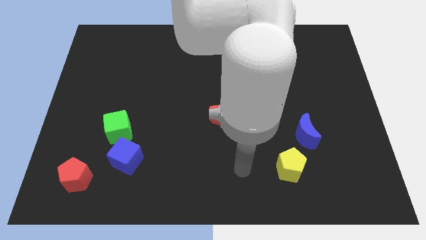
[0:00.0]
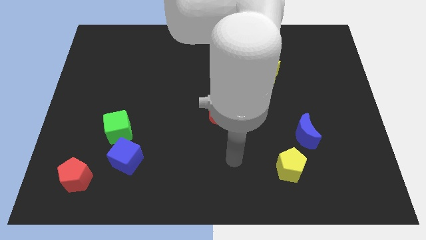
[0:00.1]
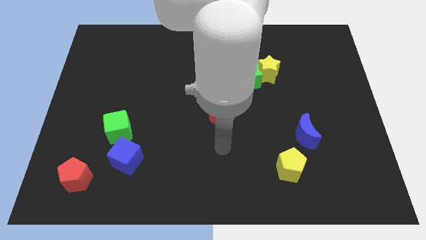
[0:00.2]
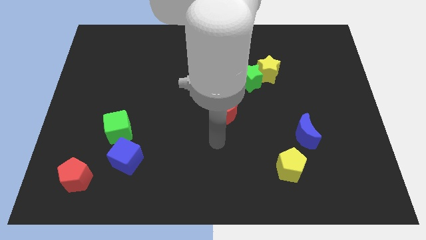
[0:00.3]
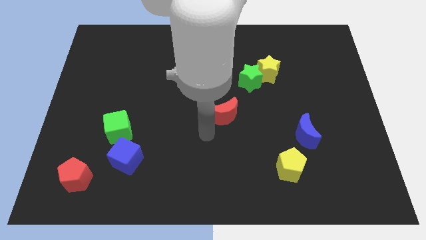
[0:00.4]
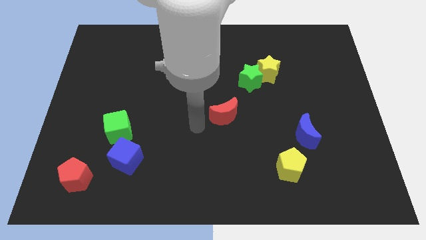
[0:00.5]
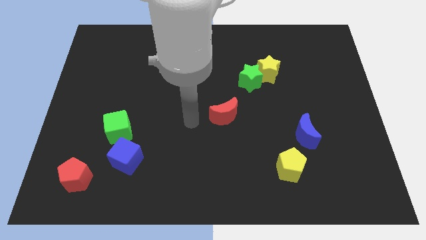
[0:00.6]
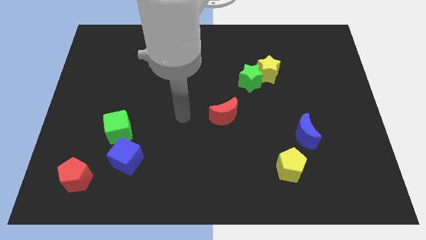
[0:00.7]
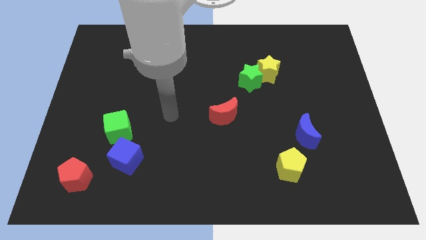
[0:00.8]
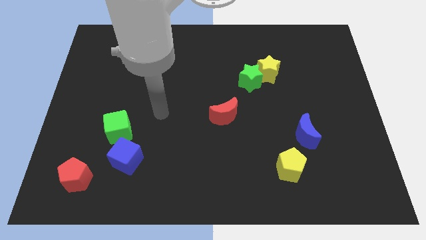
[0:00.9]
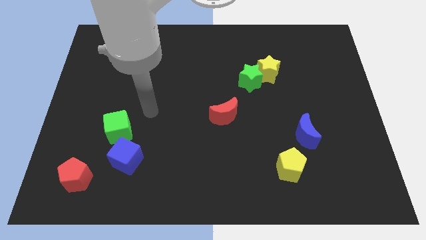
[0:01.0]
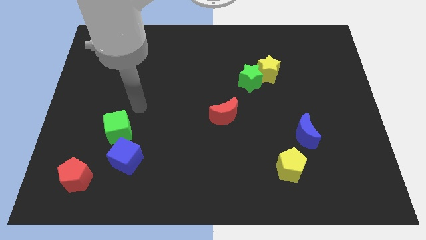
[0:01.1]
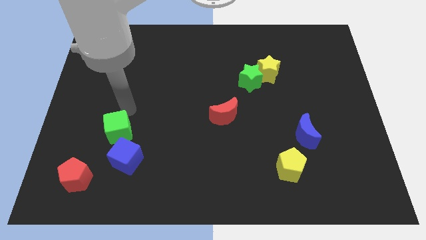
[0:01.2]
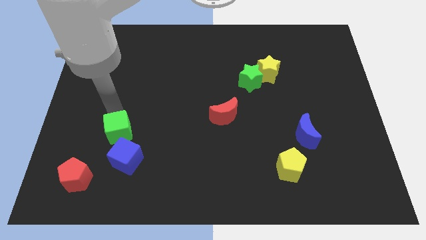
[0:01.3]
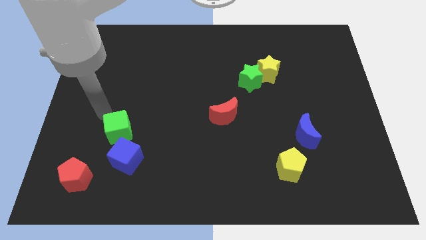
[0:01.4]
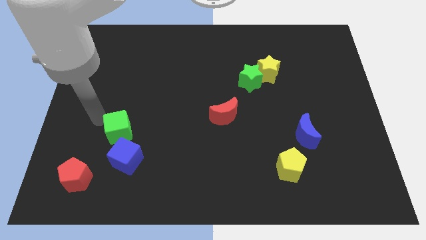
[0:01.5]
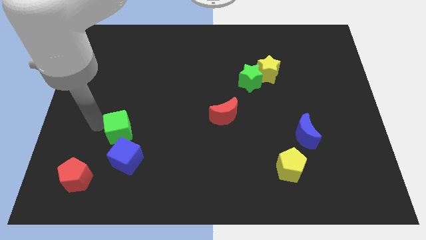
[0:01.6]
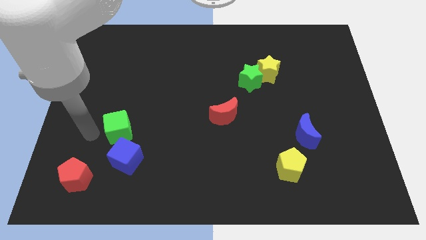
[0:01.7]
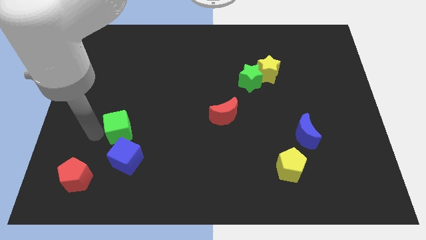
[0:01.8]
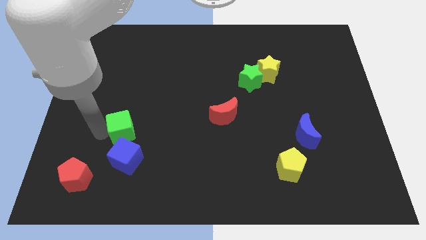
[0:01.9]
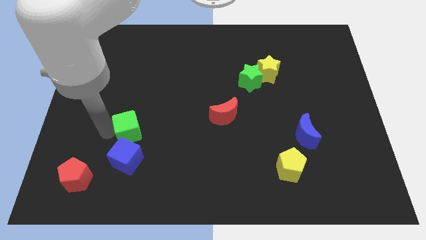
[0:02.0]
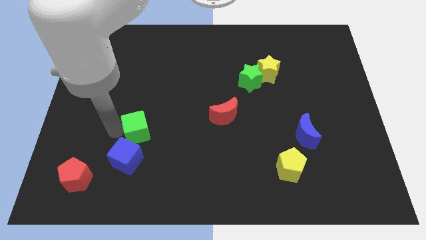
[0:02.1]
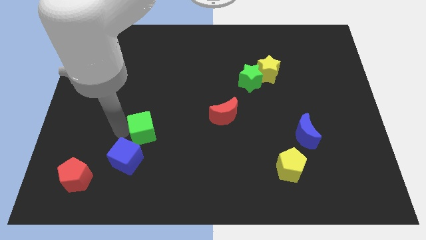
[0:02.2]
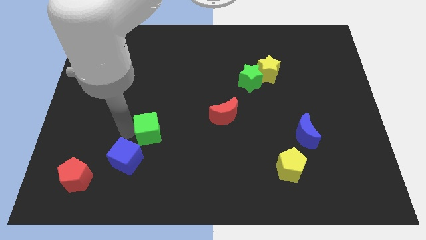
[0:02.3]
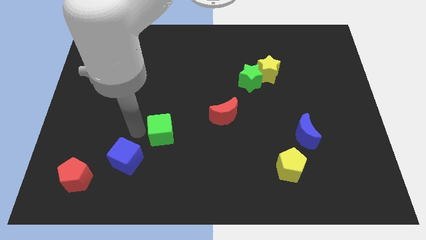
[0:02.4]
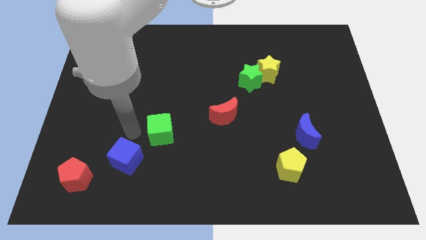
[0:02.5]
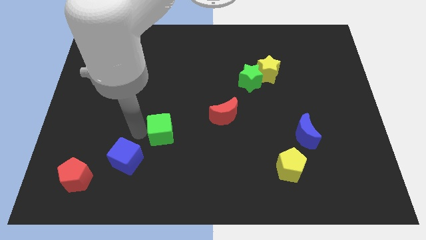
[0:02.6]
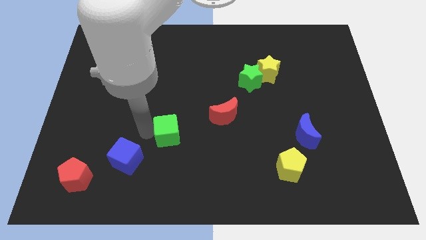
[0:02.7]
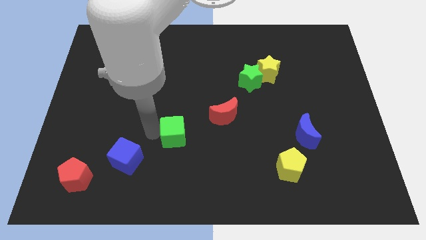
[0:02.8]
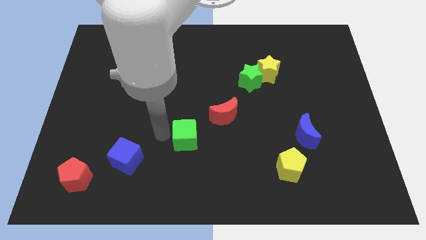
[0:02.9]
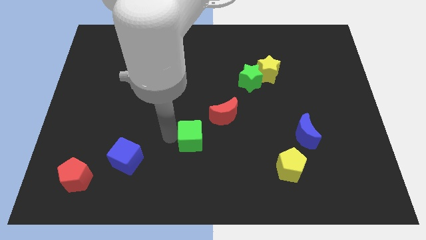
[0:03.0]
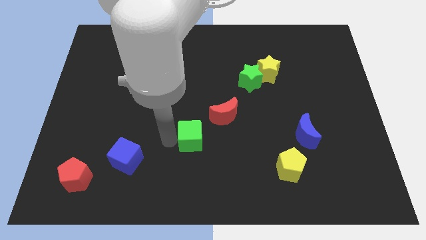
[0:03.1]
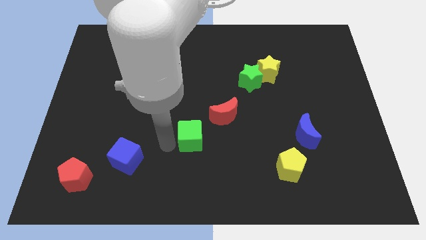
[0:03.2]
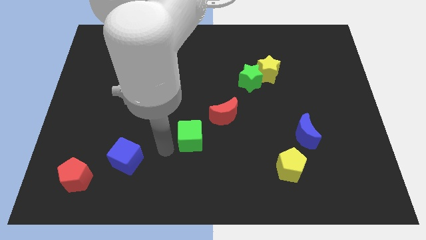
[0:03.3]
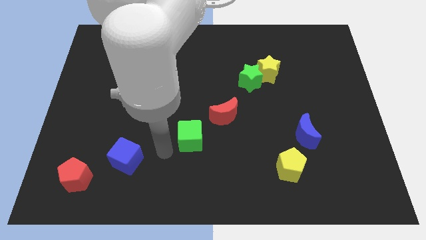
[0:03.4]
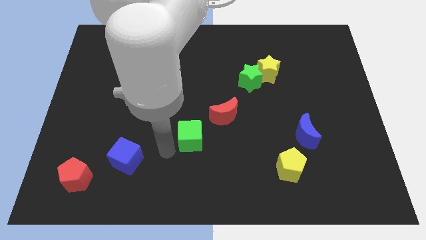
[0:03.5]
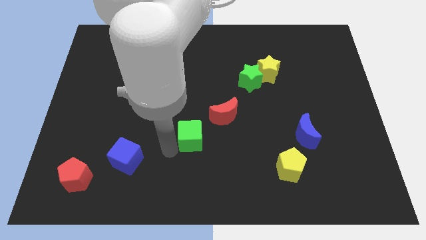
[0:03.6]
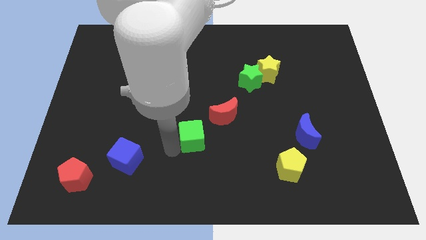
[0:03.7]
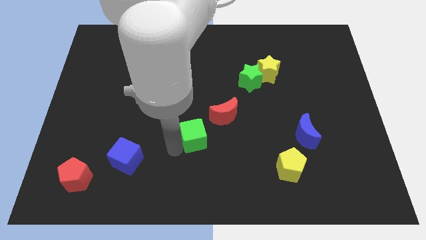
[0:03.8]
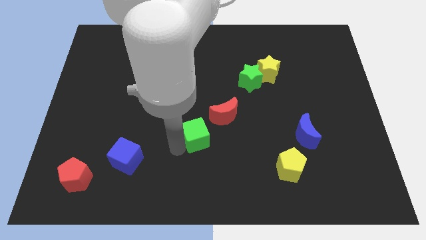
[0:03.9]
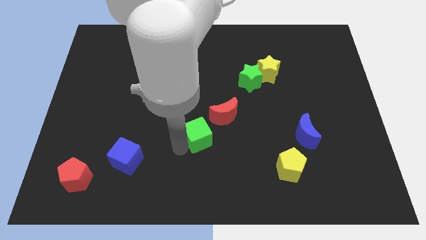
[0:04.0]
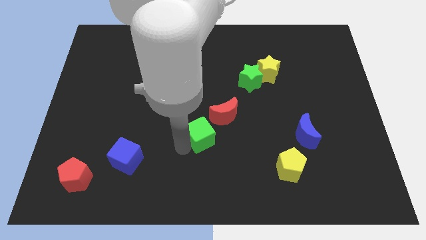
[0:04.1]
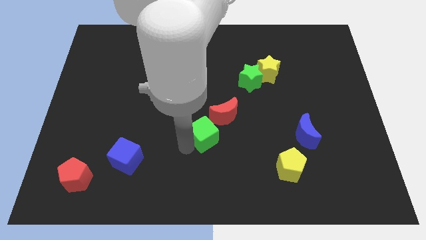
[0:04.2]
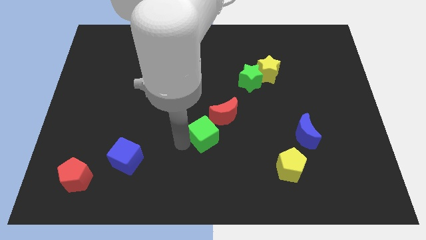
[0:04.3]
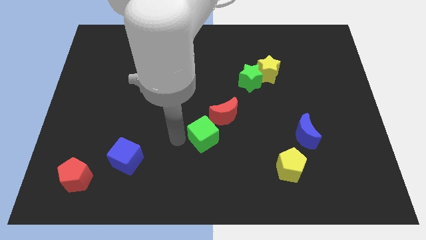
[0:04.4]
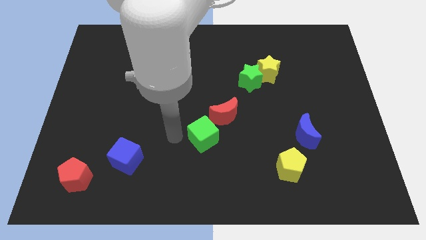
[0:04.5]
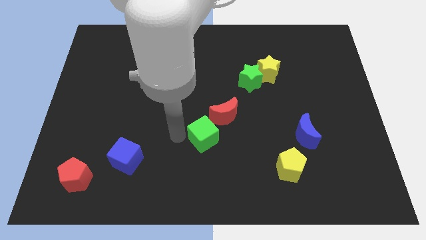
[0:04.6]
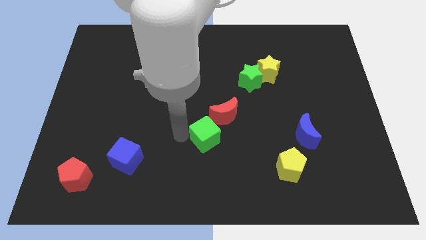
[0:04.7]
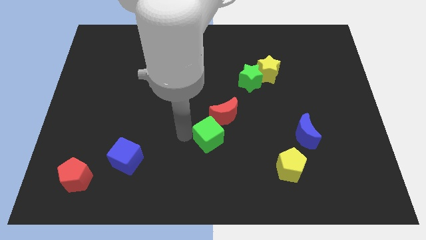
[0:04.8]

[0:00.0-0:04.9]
push the green cube to the right

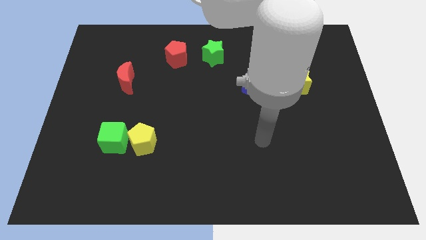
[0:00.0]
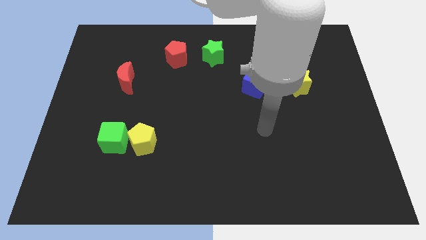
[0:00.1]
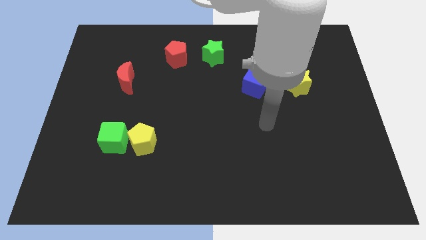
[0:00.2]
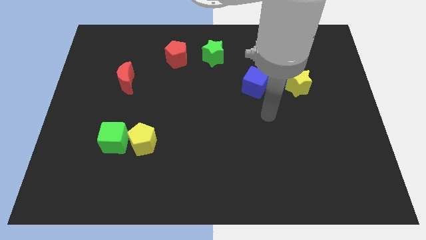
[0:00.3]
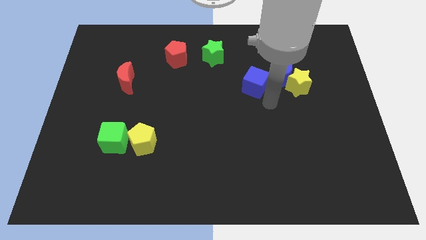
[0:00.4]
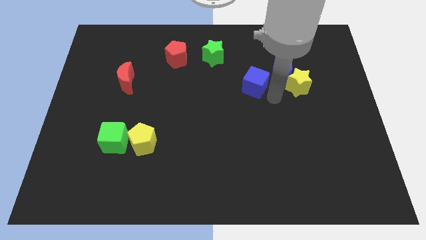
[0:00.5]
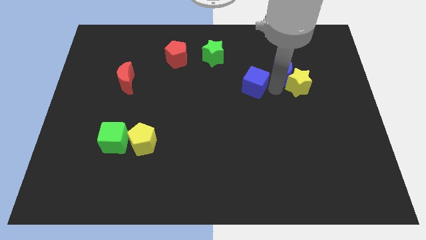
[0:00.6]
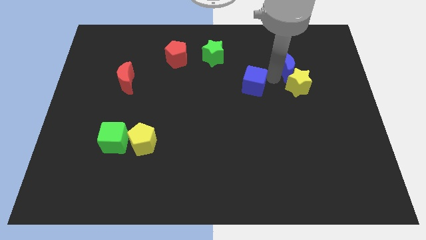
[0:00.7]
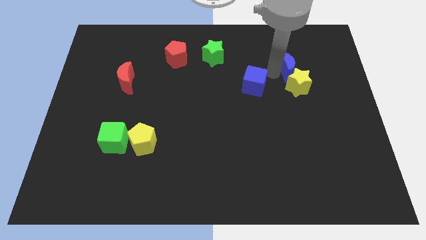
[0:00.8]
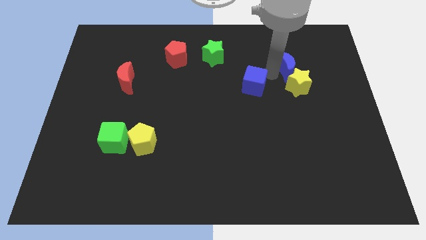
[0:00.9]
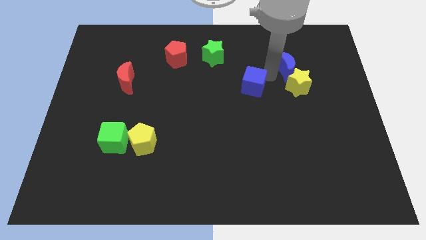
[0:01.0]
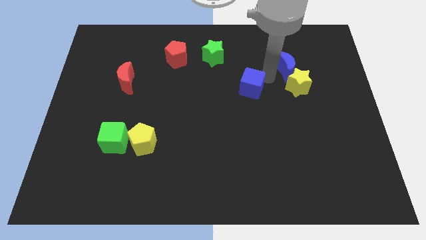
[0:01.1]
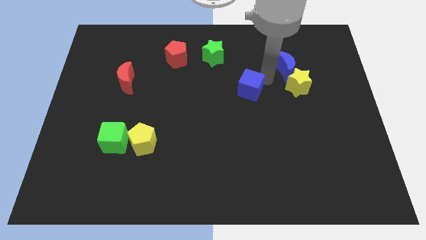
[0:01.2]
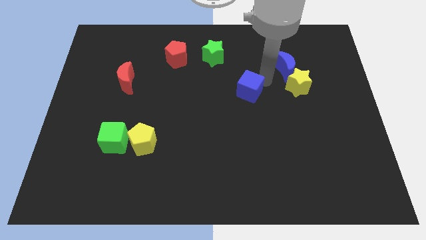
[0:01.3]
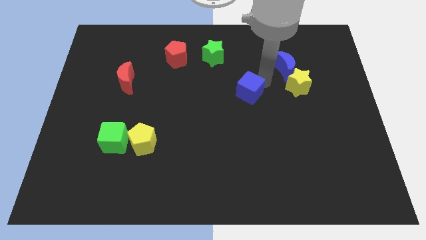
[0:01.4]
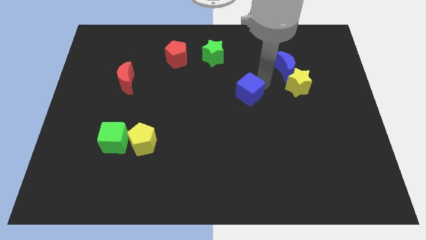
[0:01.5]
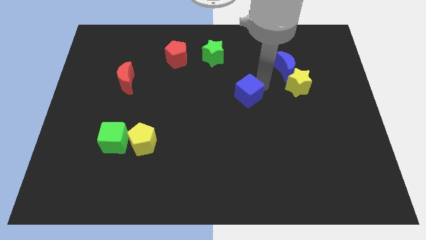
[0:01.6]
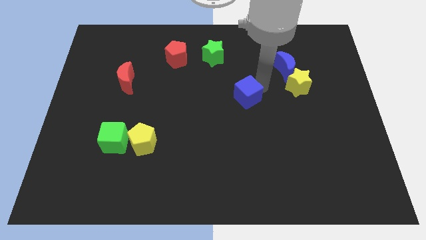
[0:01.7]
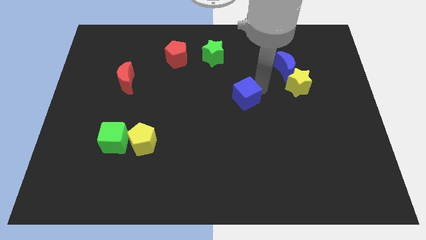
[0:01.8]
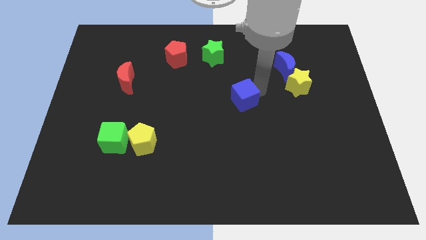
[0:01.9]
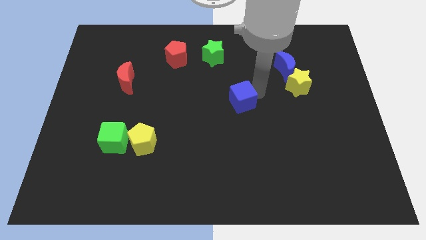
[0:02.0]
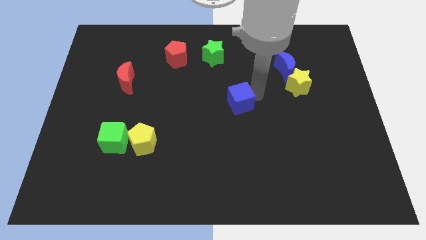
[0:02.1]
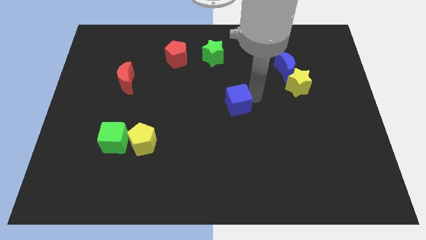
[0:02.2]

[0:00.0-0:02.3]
push the blue cube down and left diagonally somewhat

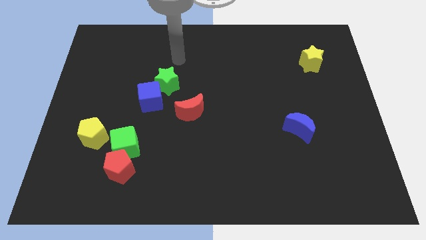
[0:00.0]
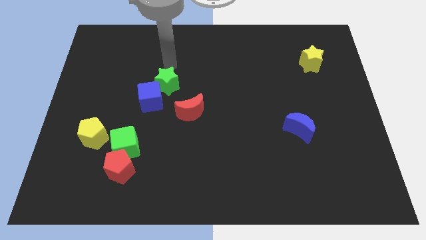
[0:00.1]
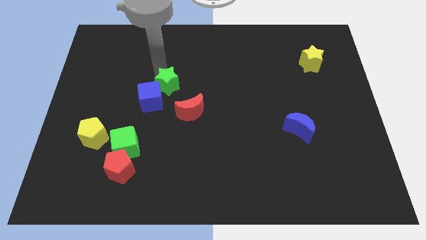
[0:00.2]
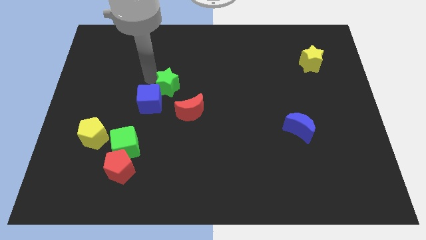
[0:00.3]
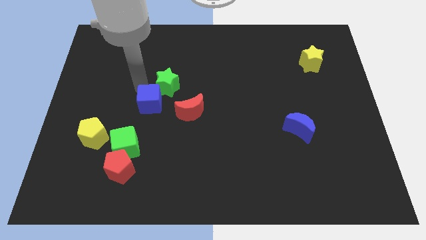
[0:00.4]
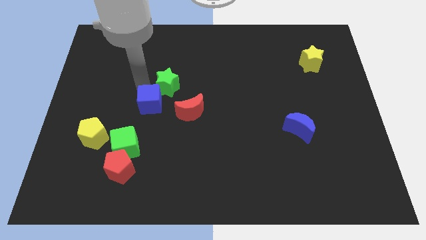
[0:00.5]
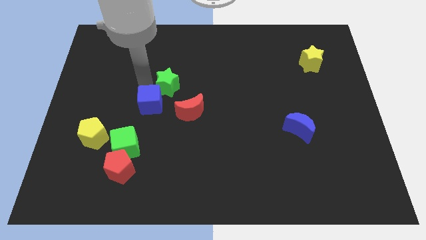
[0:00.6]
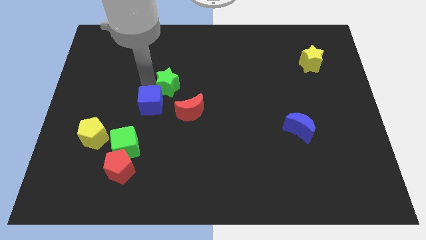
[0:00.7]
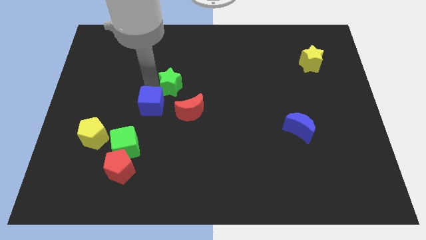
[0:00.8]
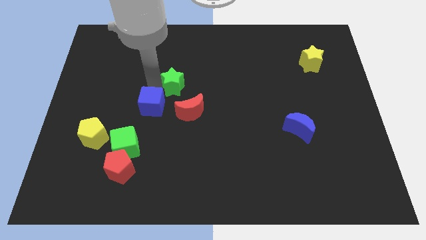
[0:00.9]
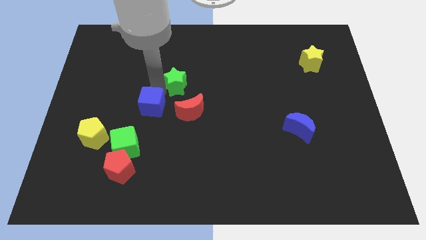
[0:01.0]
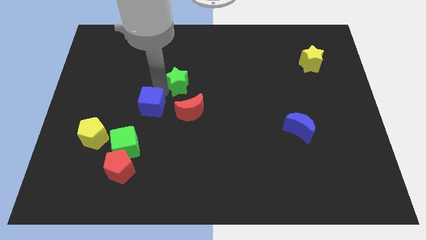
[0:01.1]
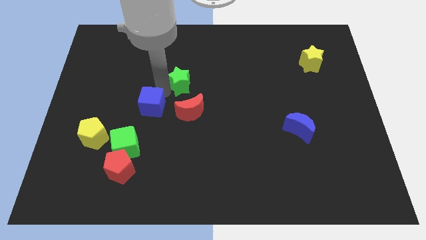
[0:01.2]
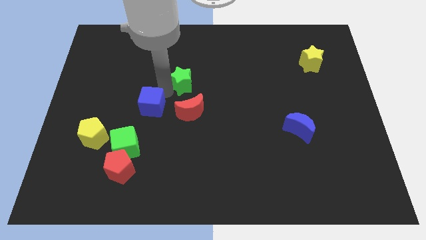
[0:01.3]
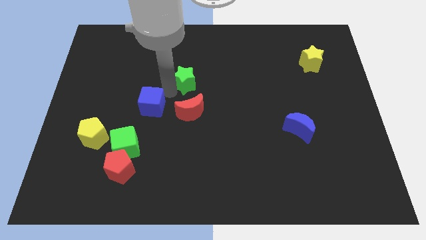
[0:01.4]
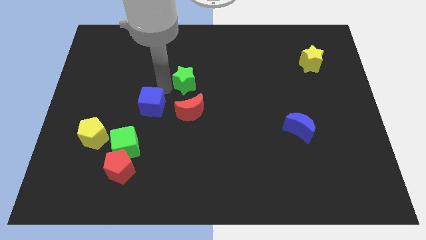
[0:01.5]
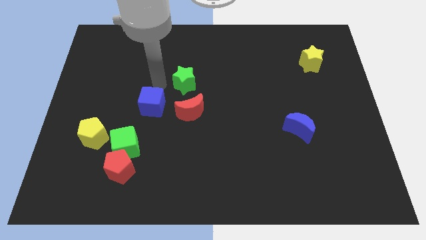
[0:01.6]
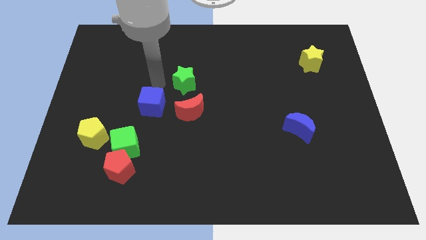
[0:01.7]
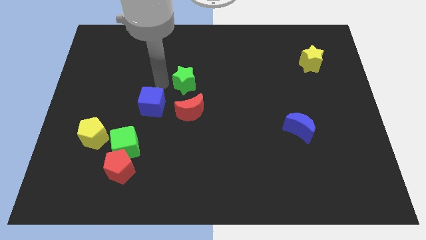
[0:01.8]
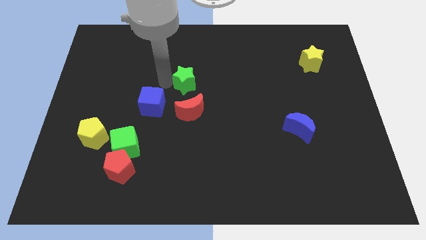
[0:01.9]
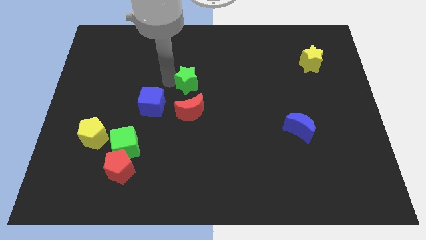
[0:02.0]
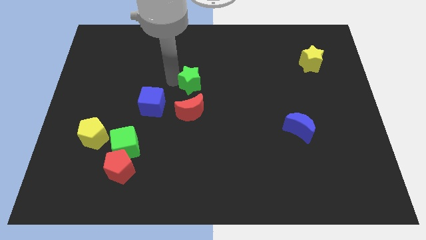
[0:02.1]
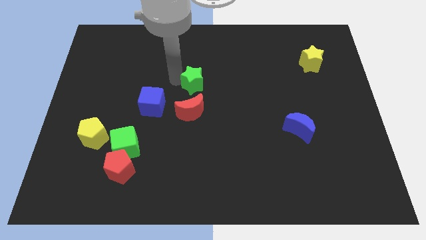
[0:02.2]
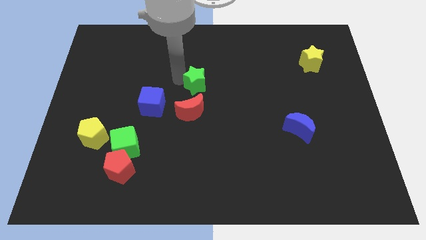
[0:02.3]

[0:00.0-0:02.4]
move the green star slightly to the right
